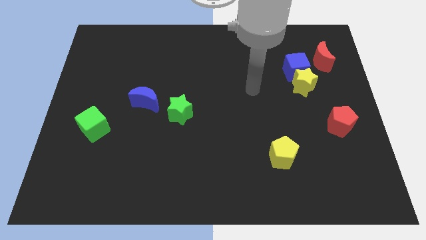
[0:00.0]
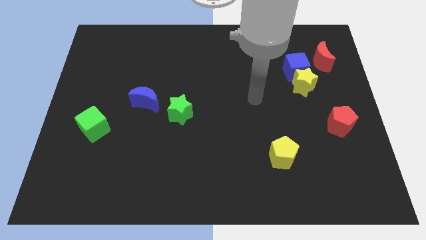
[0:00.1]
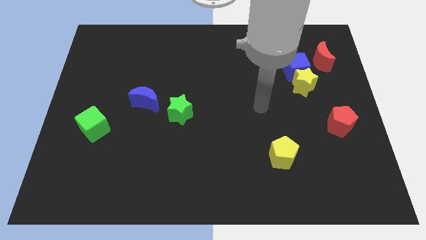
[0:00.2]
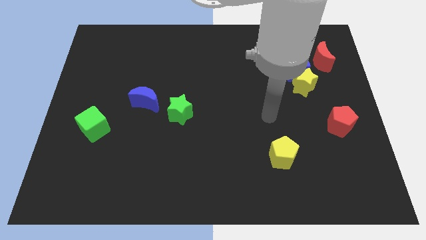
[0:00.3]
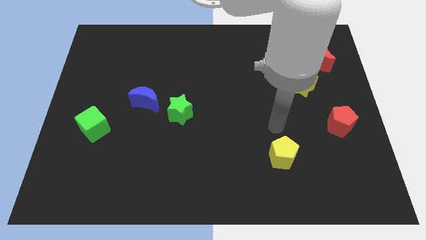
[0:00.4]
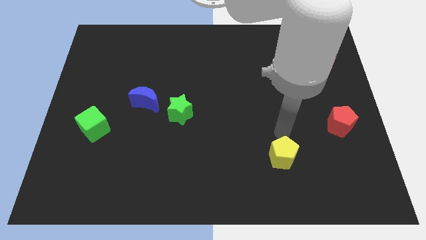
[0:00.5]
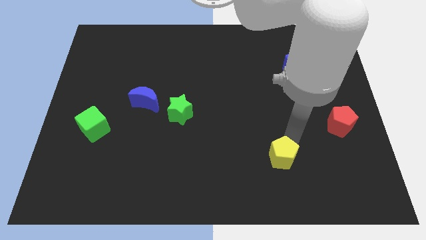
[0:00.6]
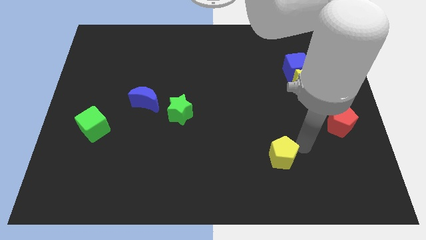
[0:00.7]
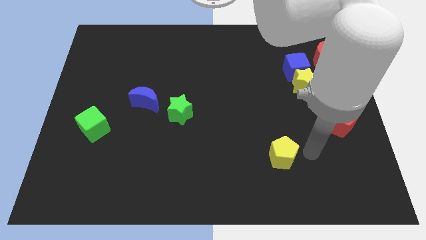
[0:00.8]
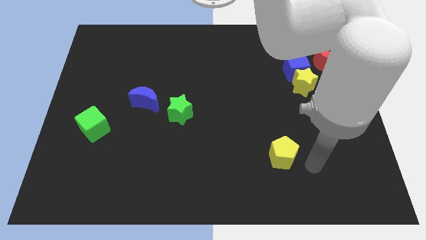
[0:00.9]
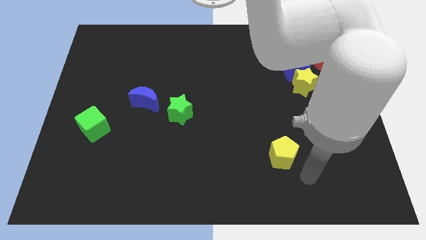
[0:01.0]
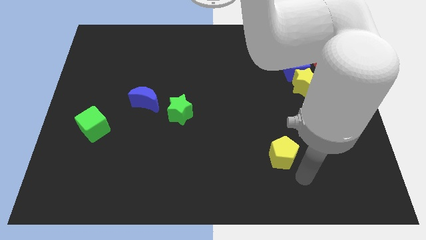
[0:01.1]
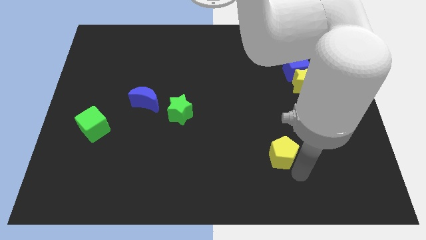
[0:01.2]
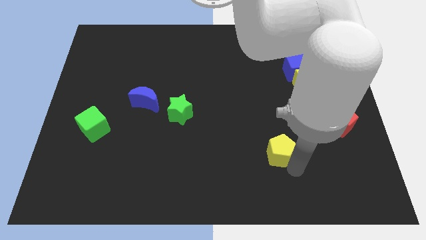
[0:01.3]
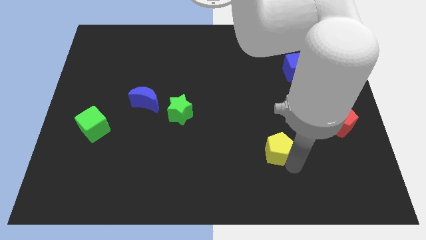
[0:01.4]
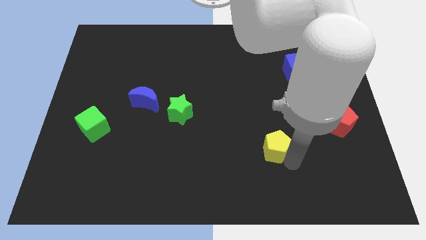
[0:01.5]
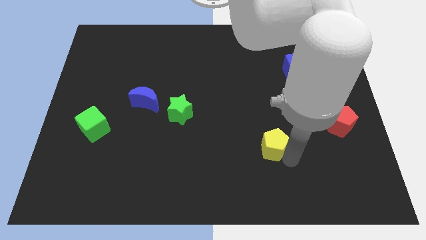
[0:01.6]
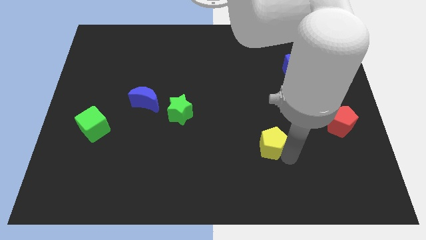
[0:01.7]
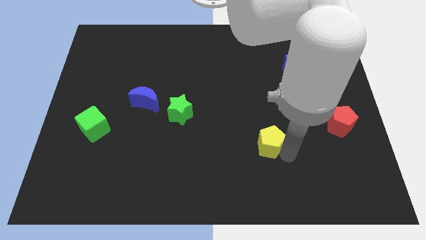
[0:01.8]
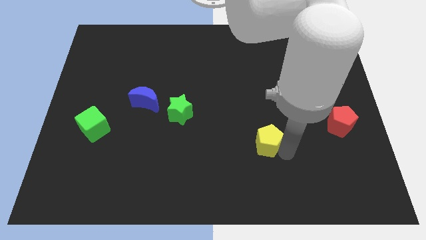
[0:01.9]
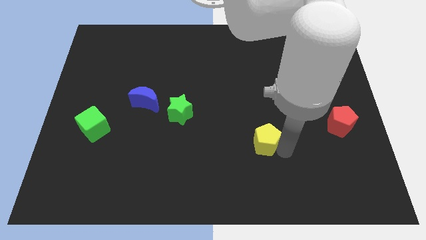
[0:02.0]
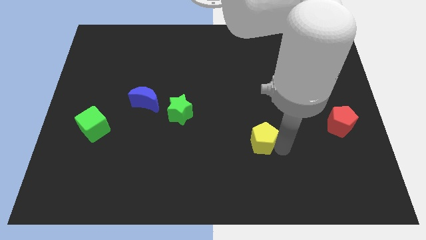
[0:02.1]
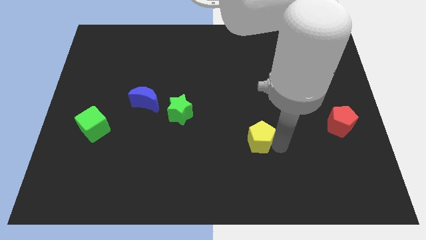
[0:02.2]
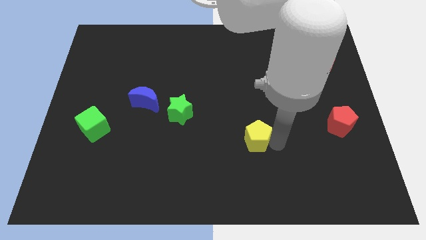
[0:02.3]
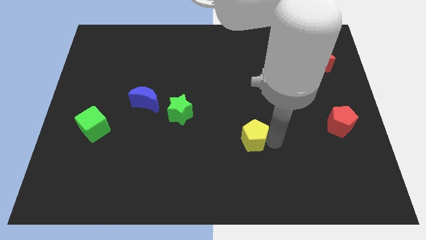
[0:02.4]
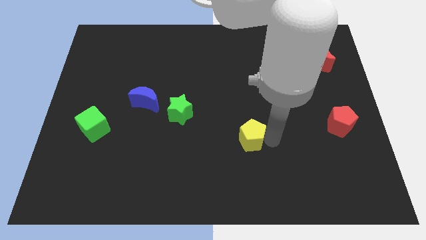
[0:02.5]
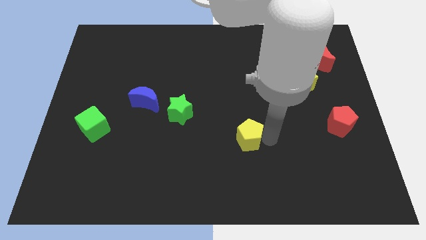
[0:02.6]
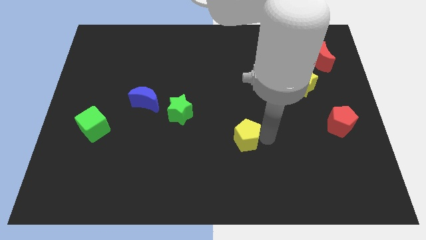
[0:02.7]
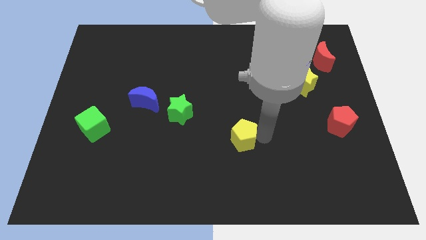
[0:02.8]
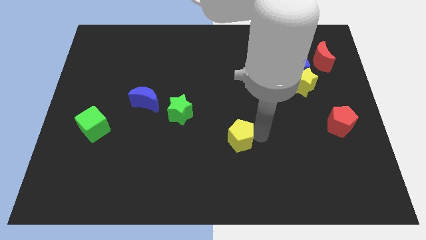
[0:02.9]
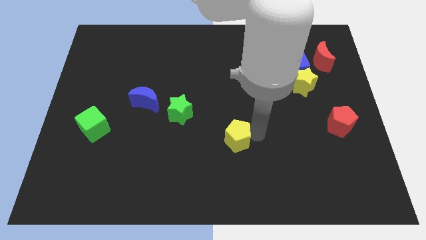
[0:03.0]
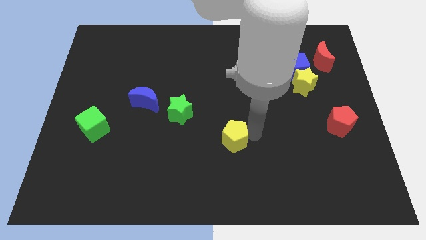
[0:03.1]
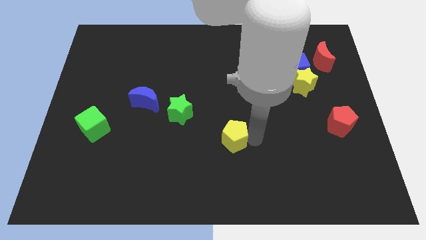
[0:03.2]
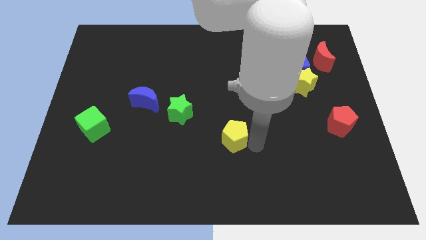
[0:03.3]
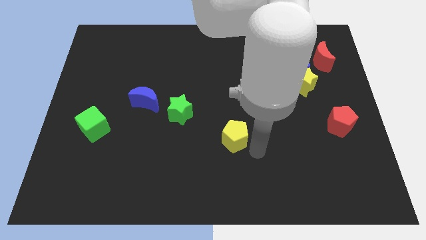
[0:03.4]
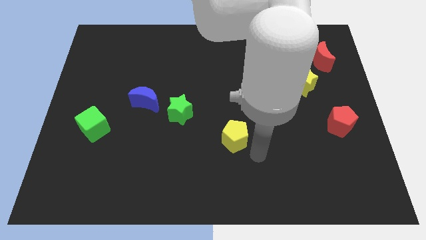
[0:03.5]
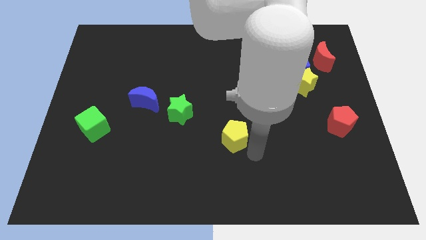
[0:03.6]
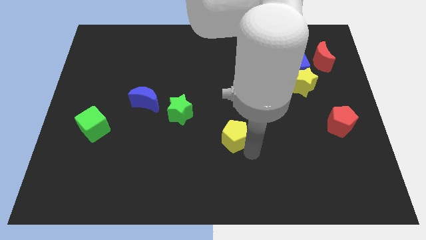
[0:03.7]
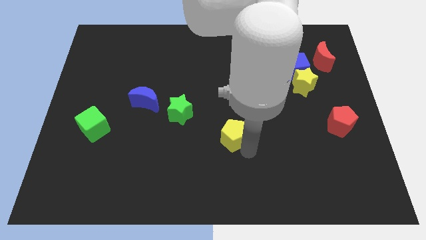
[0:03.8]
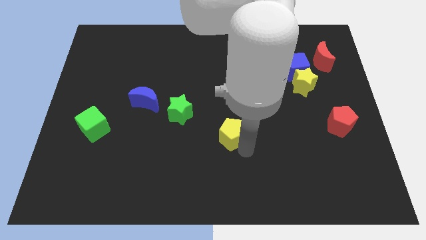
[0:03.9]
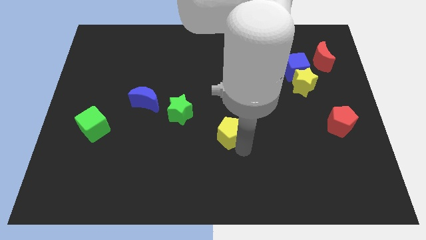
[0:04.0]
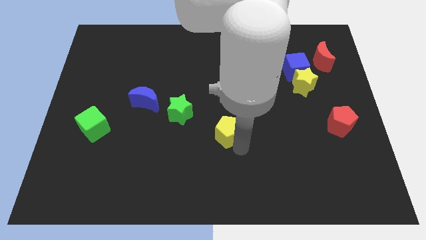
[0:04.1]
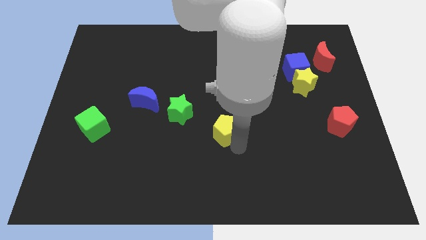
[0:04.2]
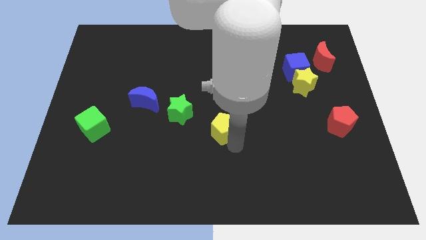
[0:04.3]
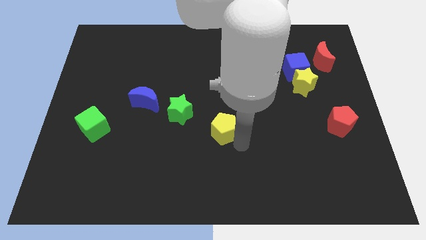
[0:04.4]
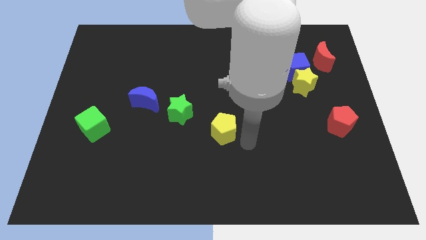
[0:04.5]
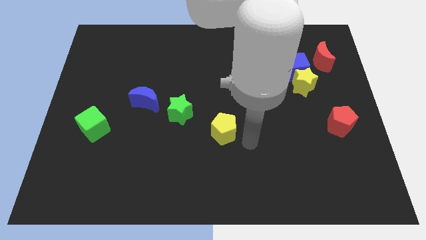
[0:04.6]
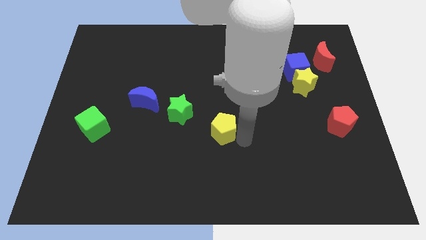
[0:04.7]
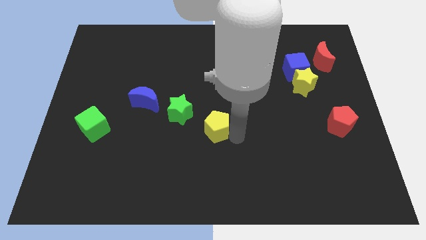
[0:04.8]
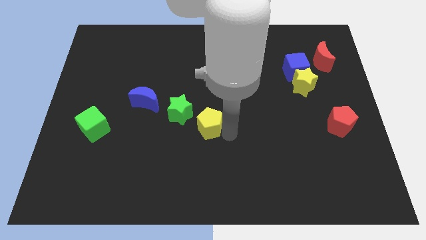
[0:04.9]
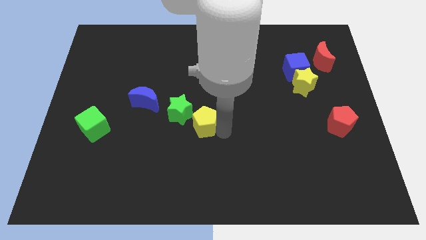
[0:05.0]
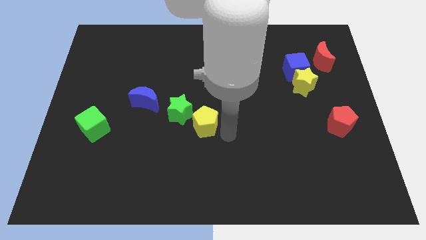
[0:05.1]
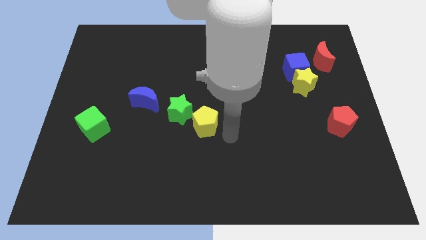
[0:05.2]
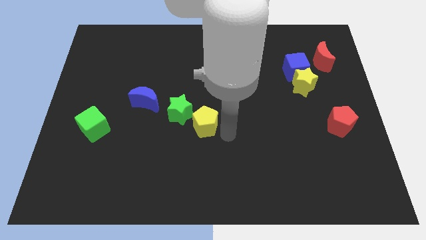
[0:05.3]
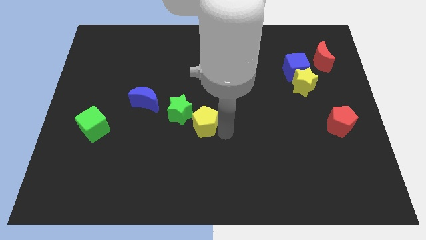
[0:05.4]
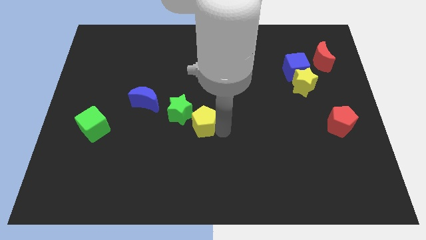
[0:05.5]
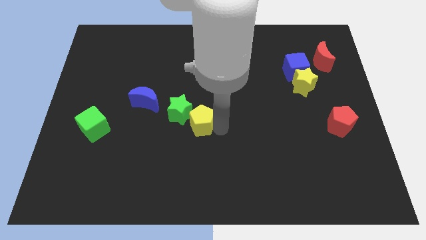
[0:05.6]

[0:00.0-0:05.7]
put the yellow pentagon to the green star

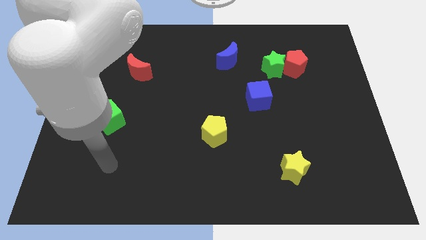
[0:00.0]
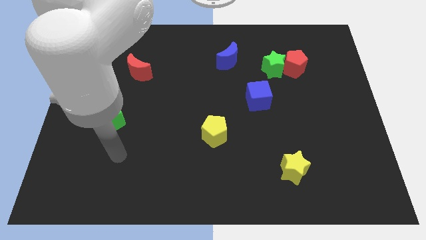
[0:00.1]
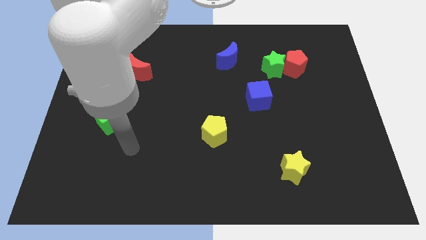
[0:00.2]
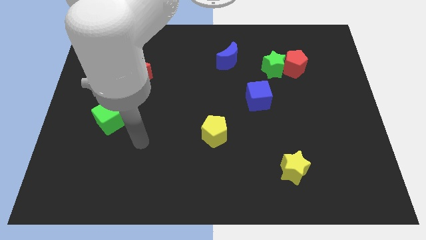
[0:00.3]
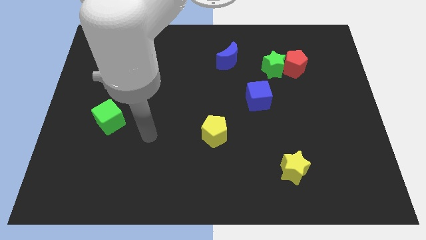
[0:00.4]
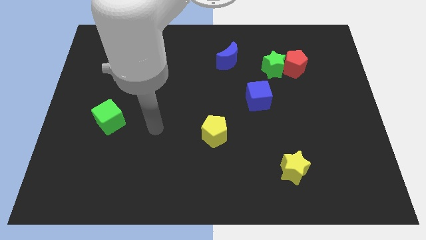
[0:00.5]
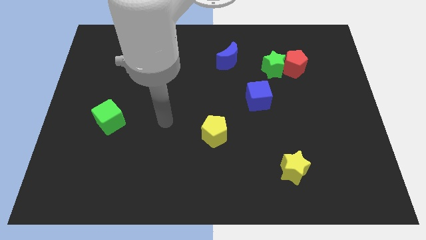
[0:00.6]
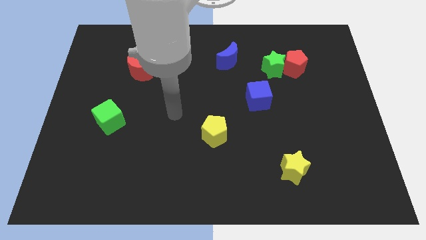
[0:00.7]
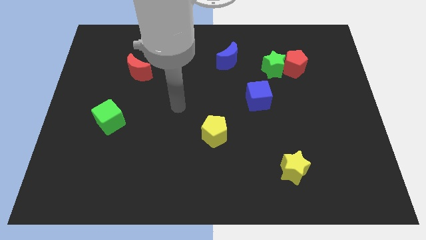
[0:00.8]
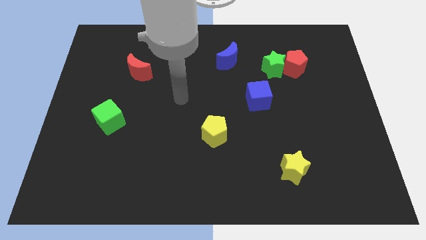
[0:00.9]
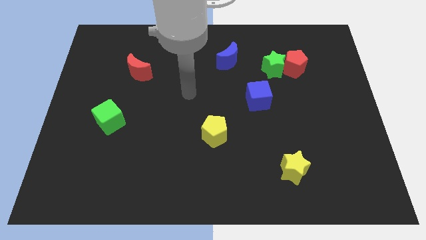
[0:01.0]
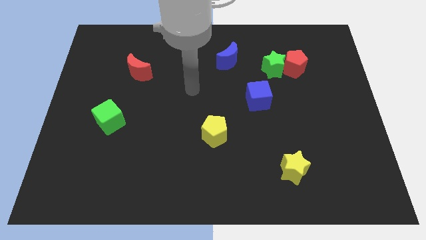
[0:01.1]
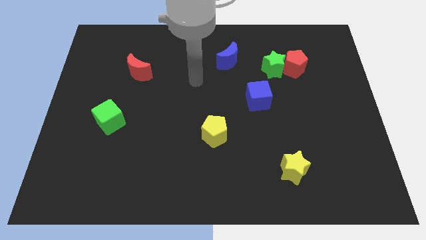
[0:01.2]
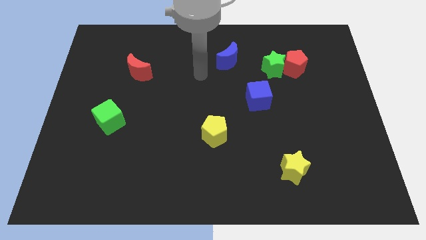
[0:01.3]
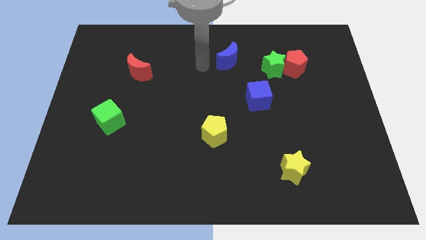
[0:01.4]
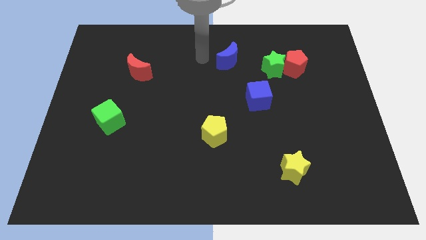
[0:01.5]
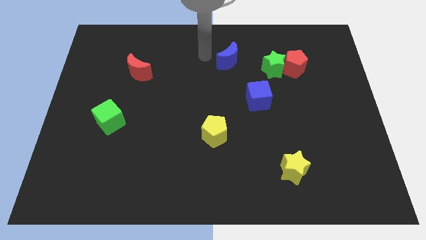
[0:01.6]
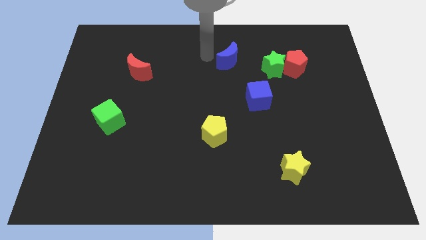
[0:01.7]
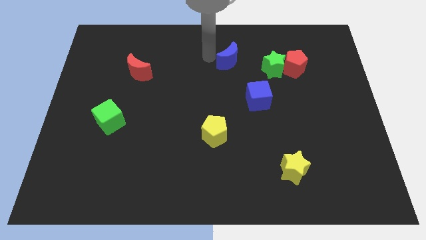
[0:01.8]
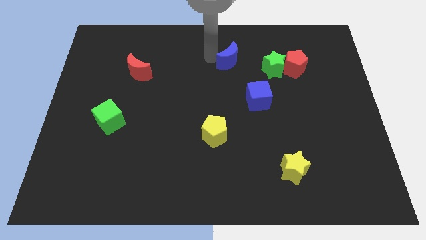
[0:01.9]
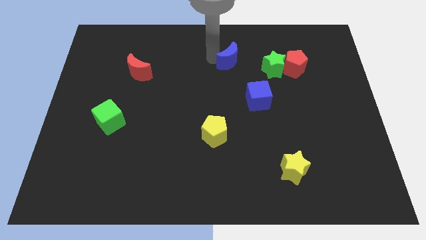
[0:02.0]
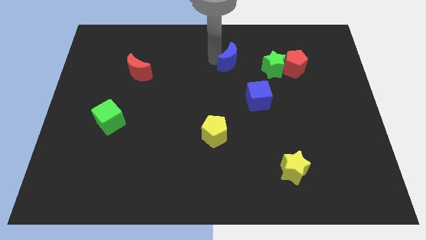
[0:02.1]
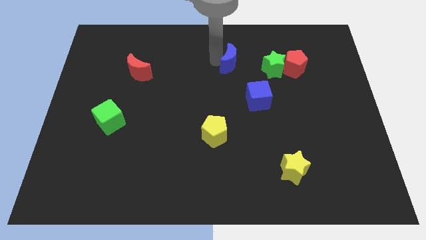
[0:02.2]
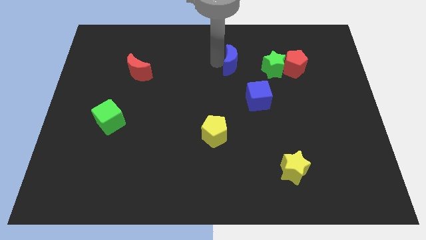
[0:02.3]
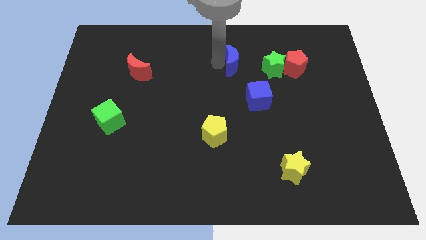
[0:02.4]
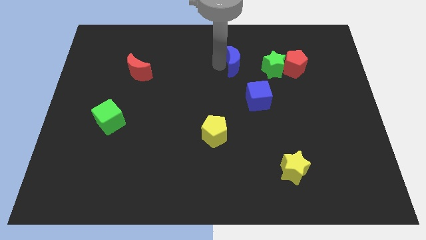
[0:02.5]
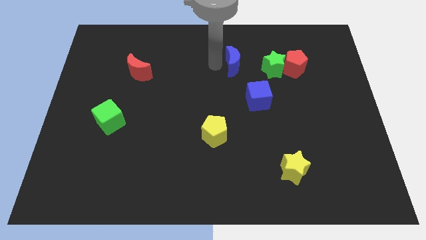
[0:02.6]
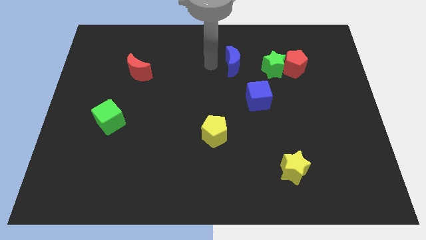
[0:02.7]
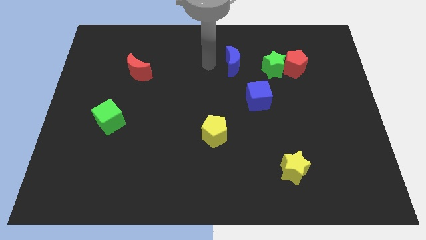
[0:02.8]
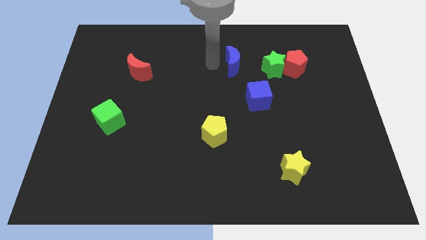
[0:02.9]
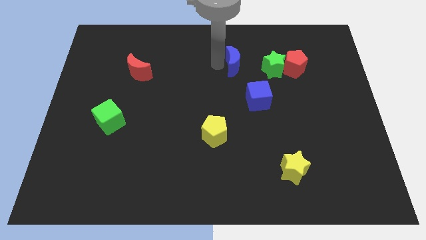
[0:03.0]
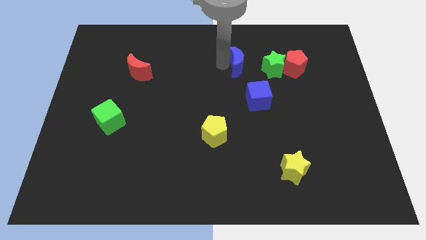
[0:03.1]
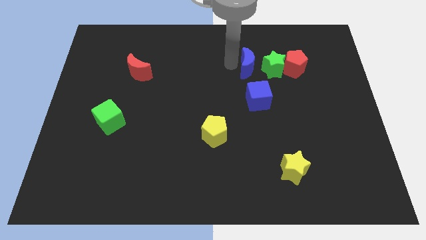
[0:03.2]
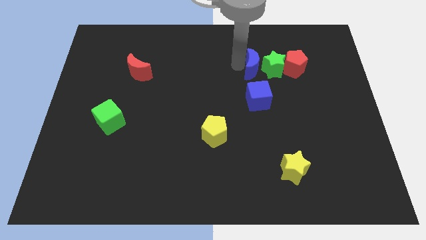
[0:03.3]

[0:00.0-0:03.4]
move the blue moon to the green star
